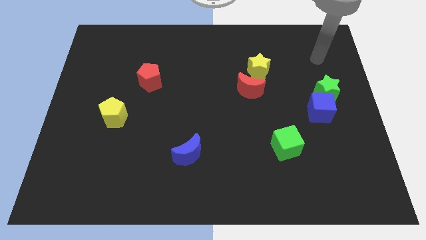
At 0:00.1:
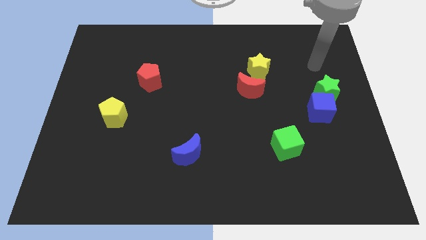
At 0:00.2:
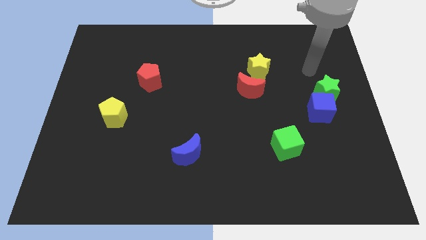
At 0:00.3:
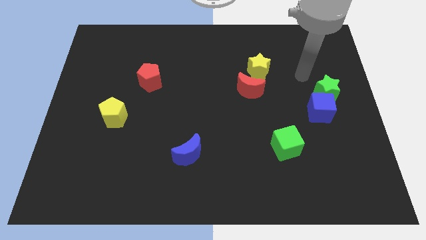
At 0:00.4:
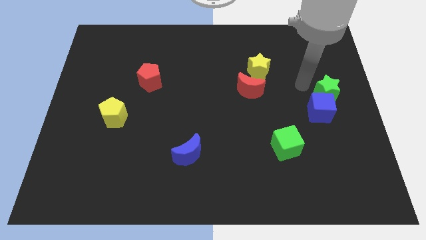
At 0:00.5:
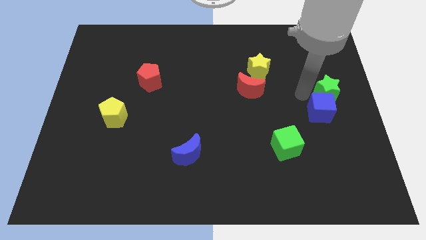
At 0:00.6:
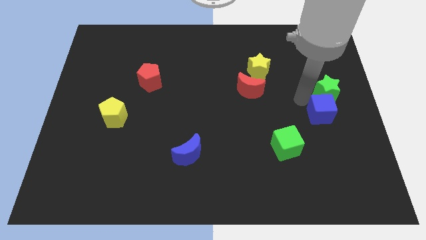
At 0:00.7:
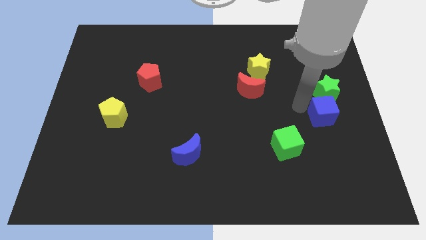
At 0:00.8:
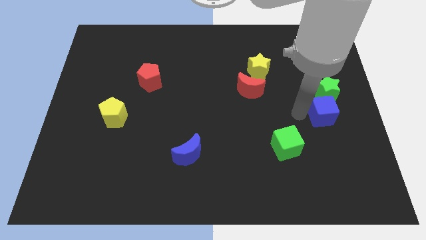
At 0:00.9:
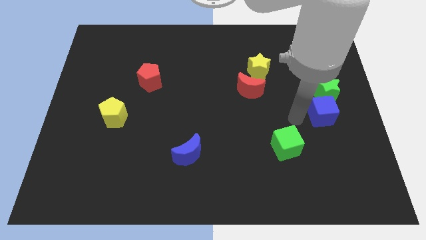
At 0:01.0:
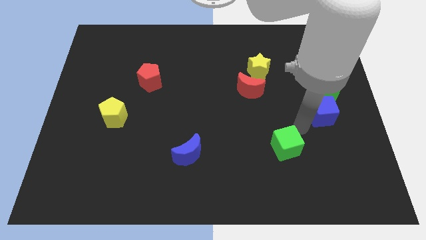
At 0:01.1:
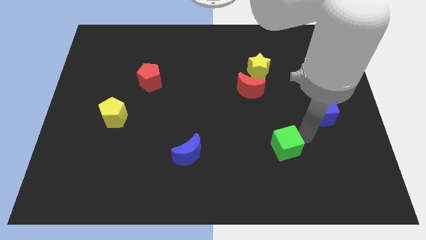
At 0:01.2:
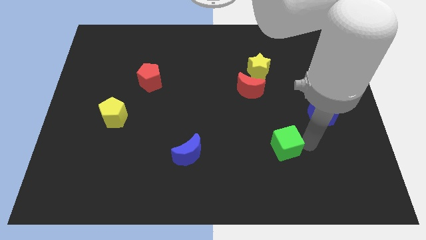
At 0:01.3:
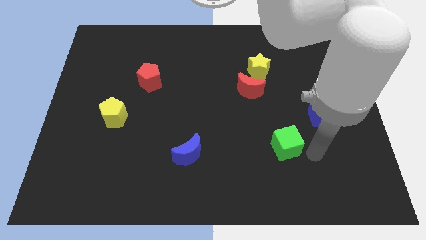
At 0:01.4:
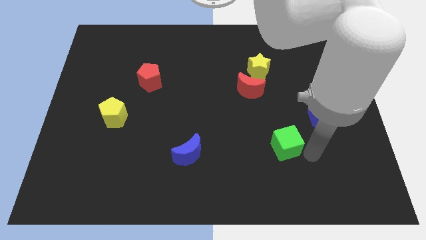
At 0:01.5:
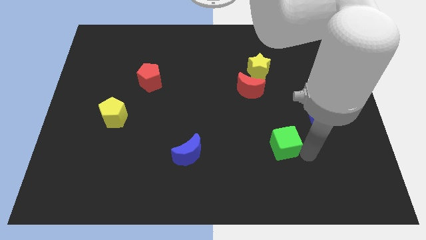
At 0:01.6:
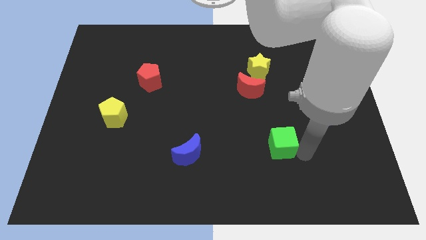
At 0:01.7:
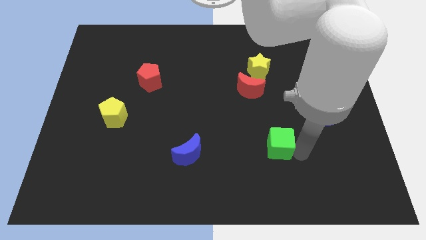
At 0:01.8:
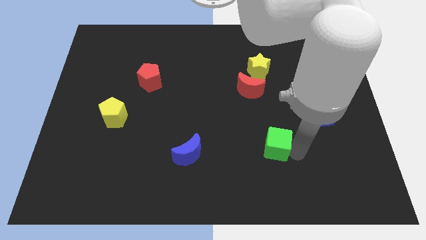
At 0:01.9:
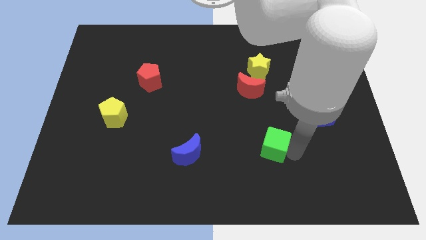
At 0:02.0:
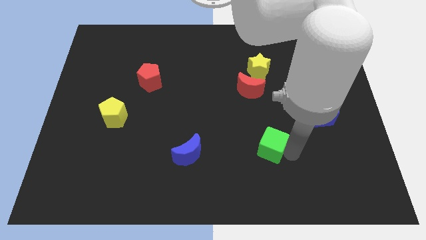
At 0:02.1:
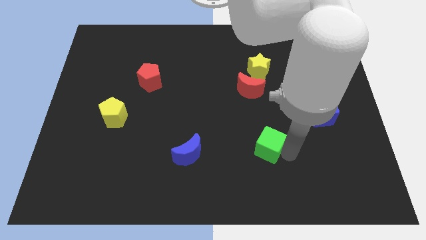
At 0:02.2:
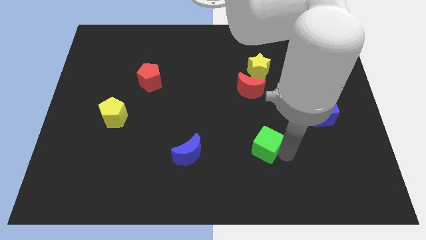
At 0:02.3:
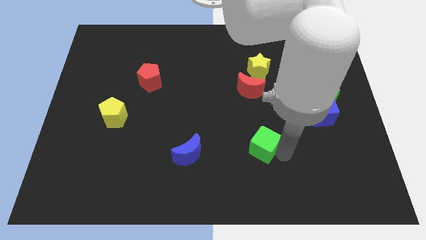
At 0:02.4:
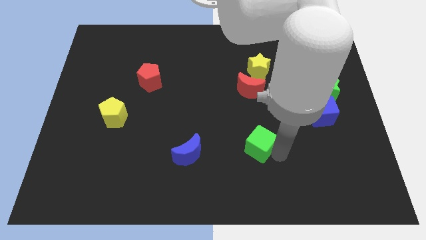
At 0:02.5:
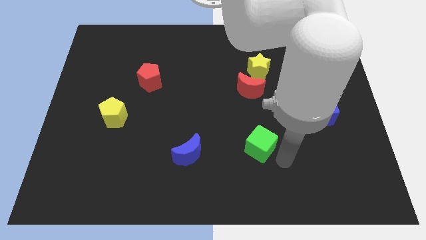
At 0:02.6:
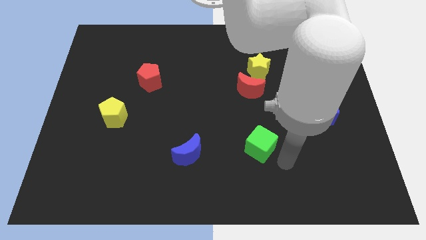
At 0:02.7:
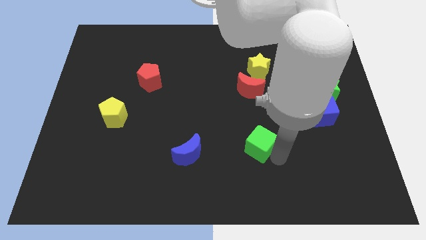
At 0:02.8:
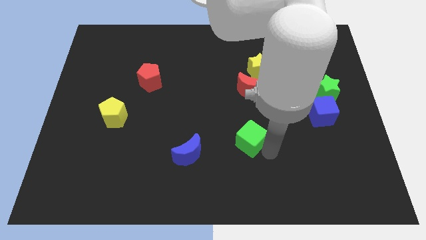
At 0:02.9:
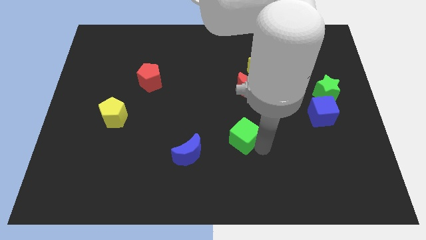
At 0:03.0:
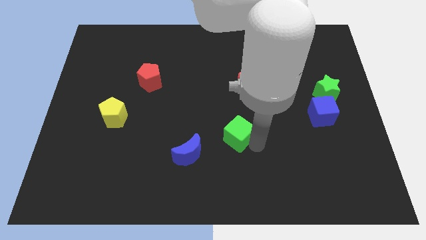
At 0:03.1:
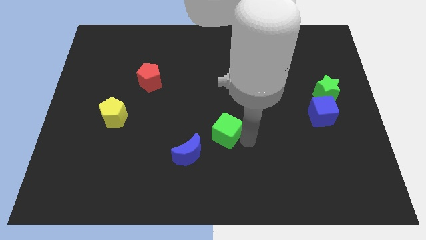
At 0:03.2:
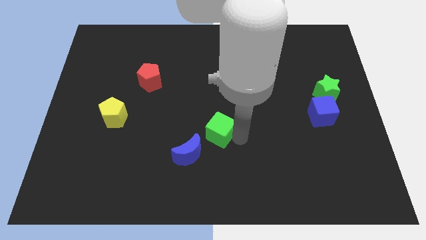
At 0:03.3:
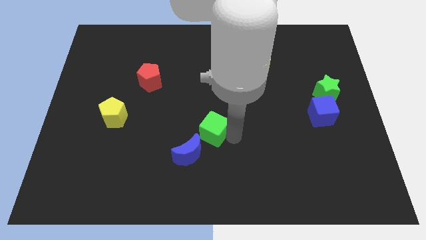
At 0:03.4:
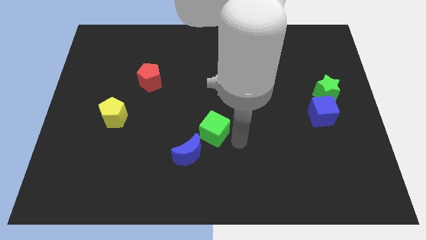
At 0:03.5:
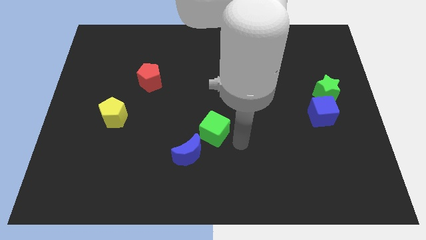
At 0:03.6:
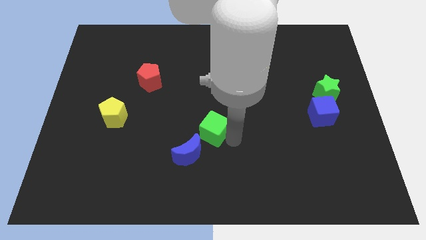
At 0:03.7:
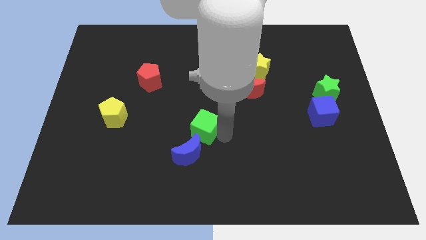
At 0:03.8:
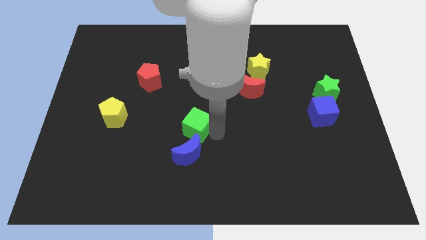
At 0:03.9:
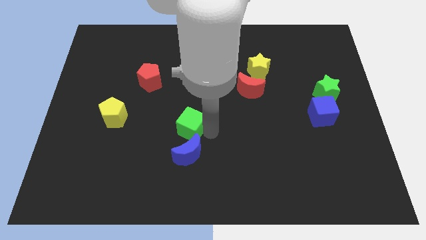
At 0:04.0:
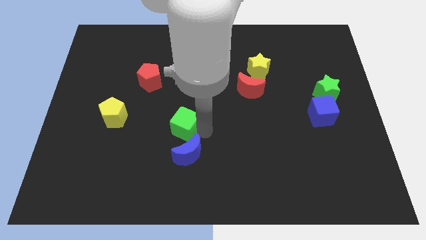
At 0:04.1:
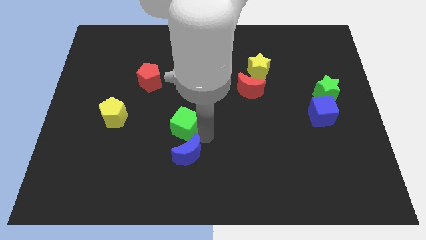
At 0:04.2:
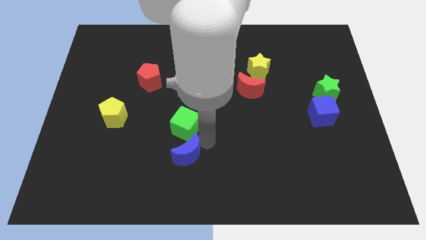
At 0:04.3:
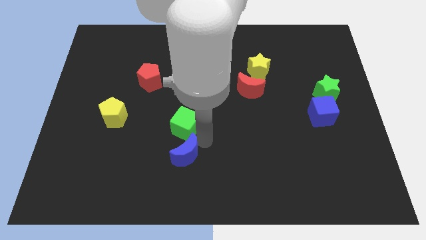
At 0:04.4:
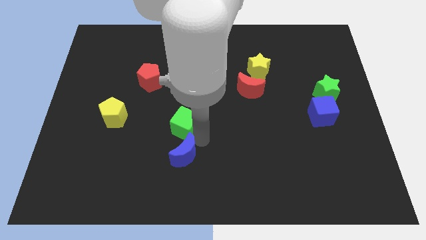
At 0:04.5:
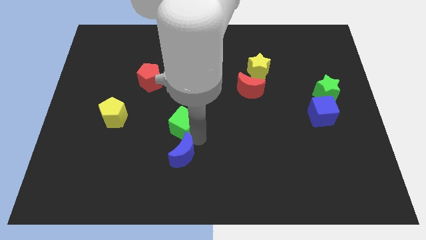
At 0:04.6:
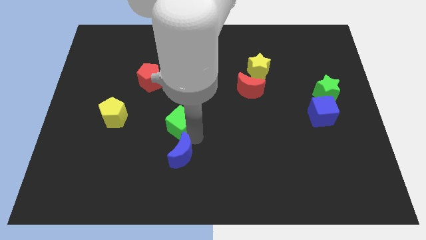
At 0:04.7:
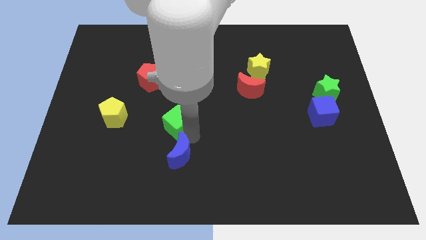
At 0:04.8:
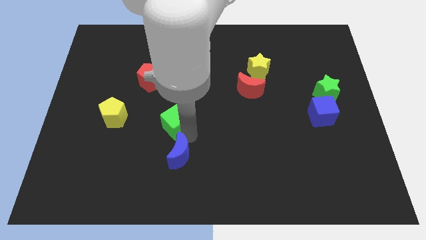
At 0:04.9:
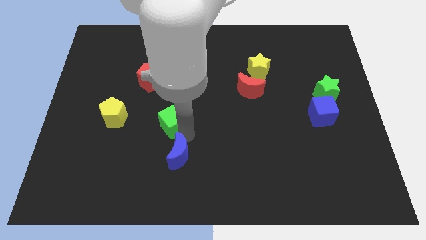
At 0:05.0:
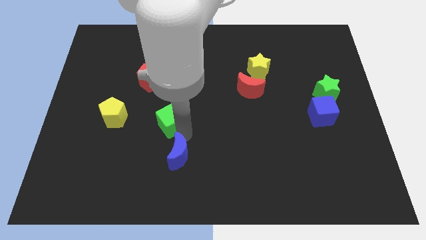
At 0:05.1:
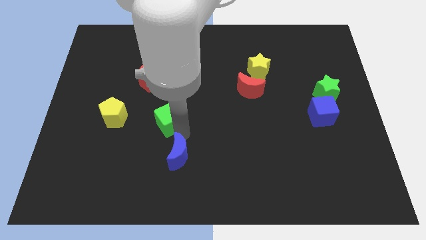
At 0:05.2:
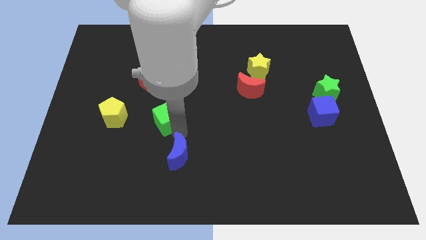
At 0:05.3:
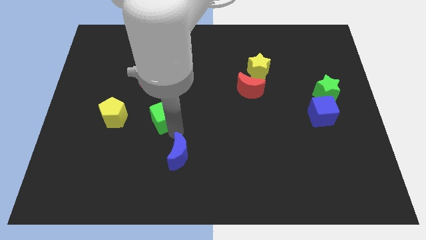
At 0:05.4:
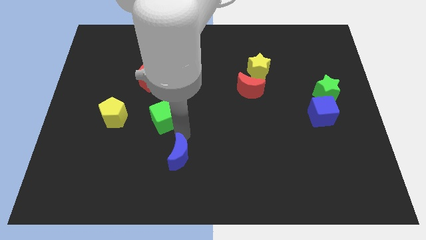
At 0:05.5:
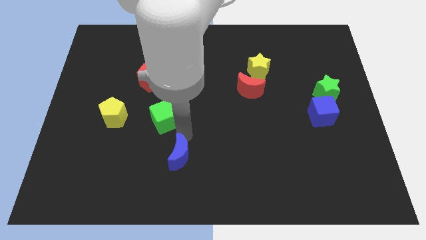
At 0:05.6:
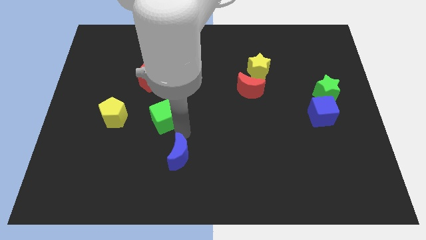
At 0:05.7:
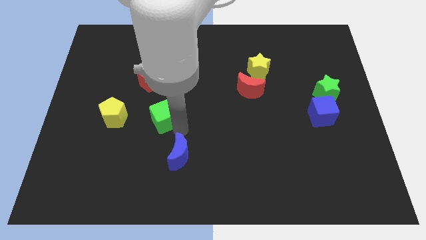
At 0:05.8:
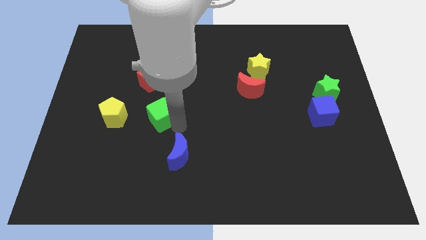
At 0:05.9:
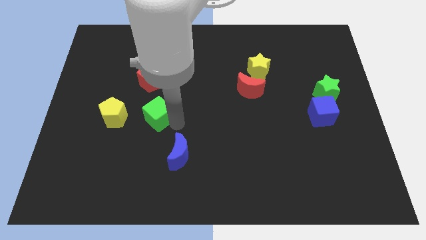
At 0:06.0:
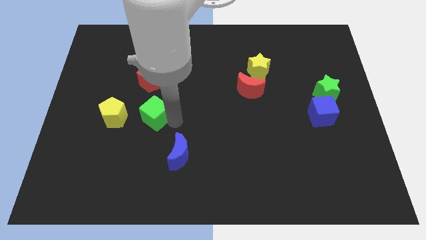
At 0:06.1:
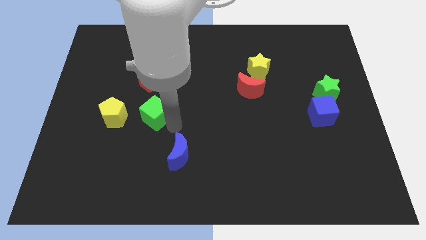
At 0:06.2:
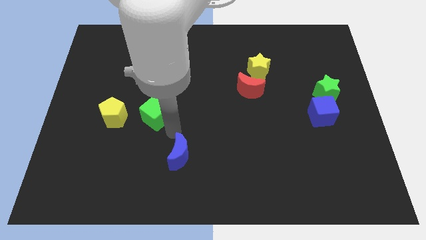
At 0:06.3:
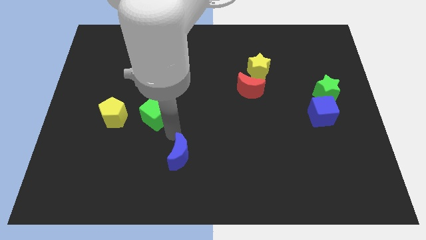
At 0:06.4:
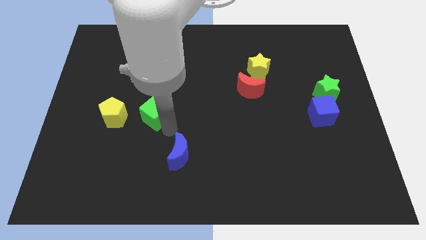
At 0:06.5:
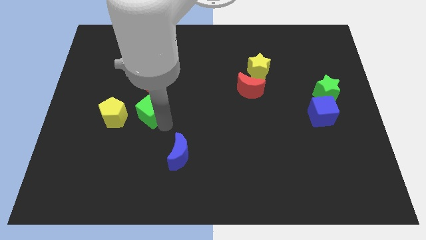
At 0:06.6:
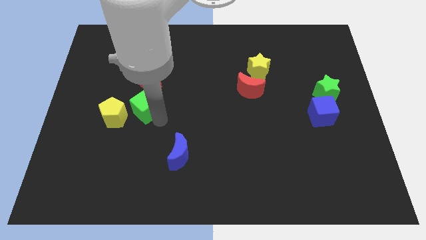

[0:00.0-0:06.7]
move the green cube to the top right side of the yellow pentagon
